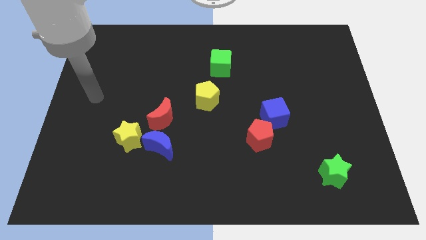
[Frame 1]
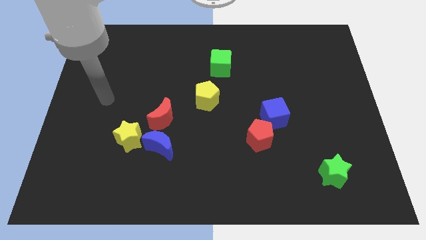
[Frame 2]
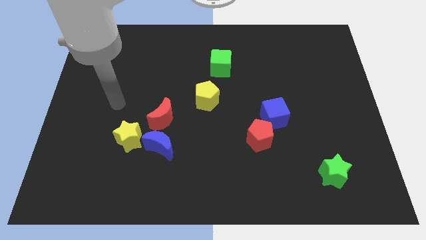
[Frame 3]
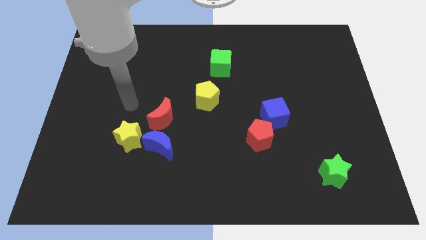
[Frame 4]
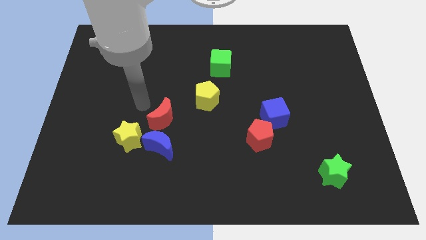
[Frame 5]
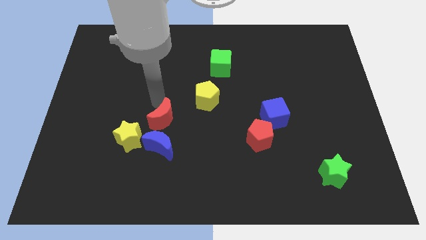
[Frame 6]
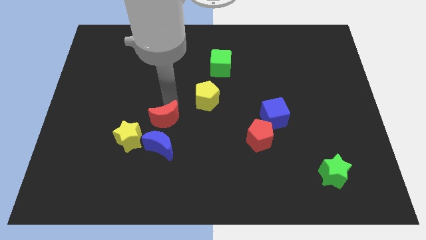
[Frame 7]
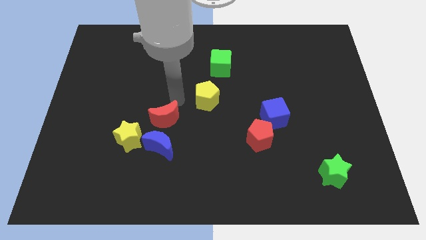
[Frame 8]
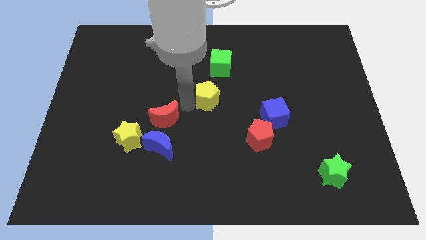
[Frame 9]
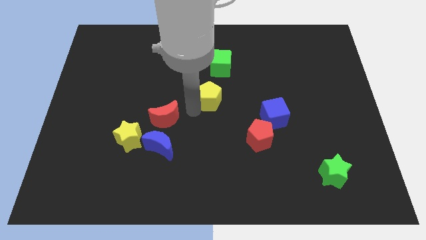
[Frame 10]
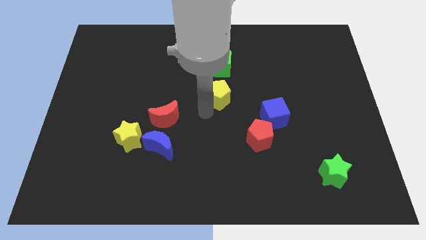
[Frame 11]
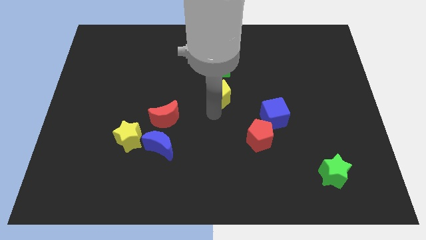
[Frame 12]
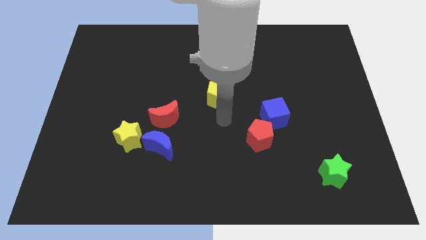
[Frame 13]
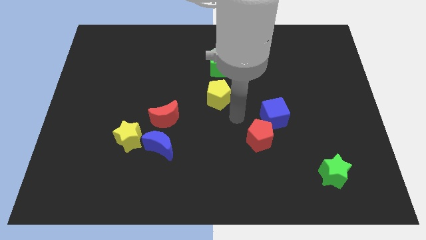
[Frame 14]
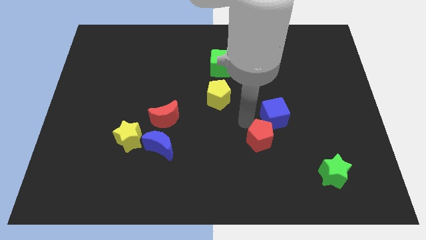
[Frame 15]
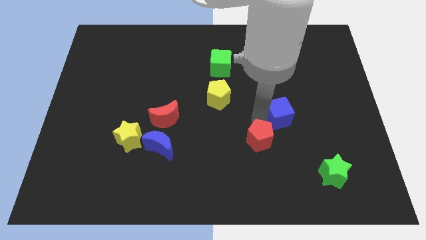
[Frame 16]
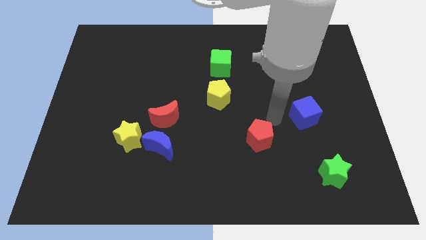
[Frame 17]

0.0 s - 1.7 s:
separate the red pentagon from the blue cube

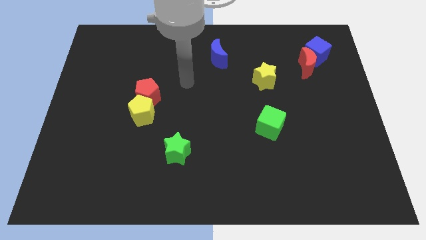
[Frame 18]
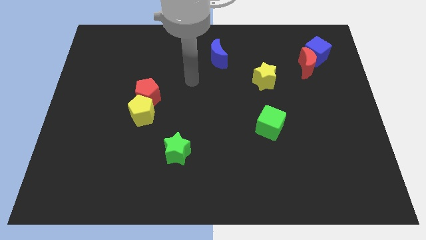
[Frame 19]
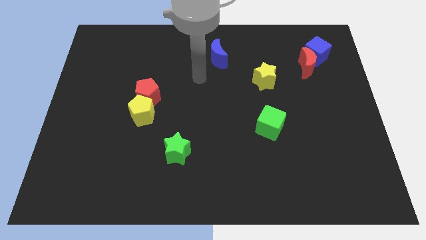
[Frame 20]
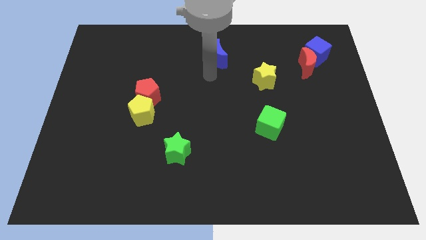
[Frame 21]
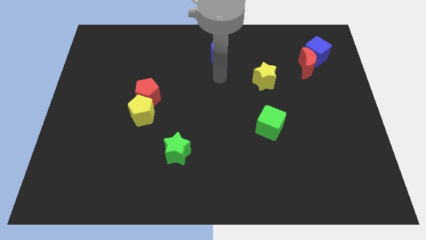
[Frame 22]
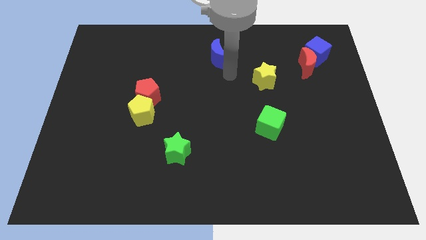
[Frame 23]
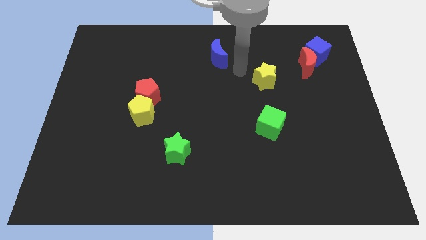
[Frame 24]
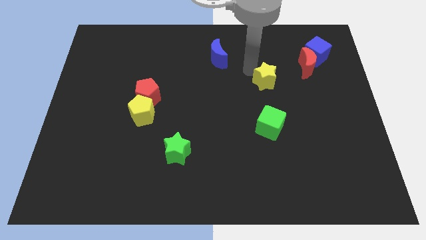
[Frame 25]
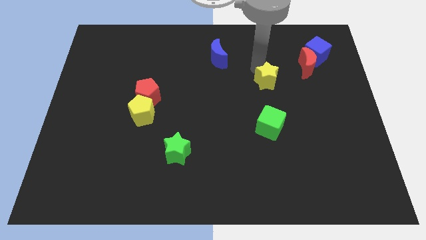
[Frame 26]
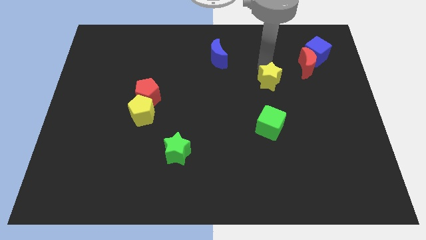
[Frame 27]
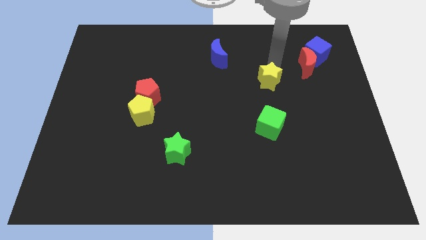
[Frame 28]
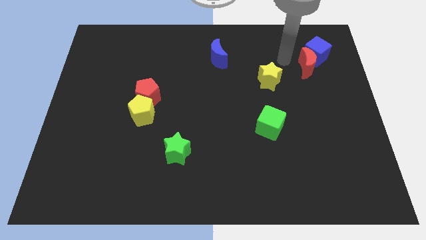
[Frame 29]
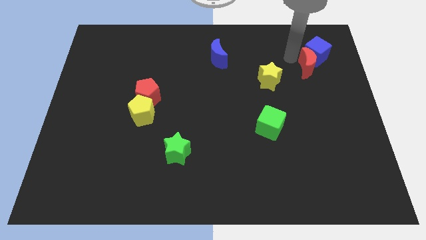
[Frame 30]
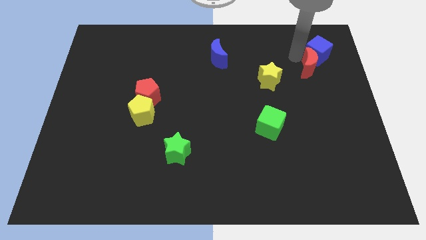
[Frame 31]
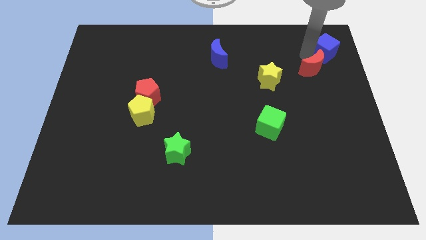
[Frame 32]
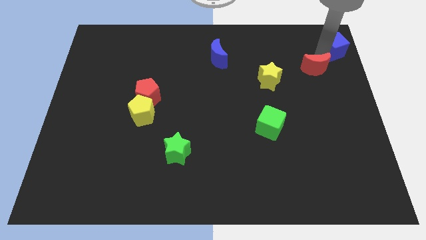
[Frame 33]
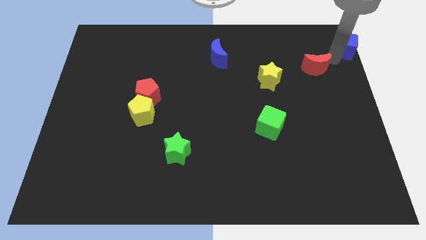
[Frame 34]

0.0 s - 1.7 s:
separate the red moon from the blue cube

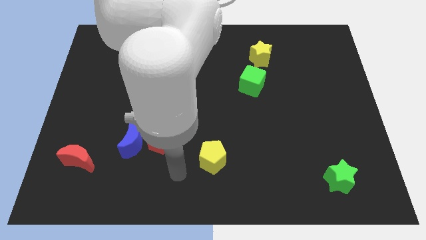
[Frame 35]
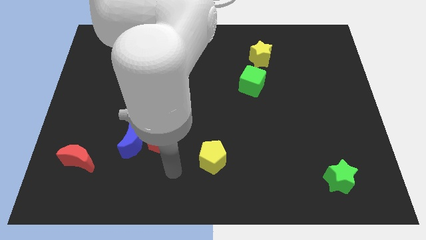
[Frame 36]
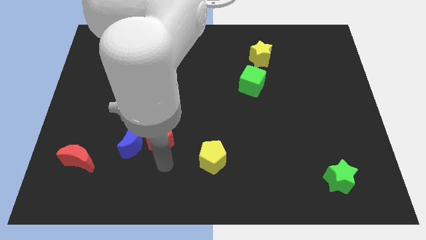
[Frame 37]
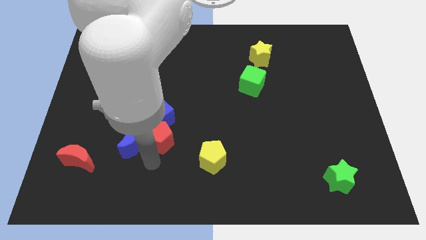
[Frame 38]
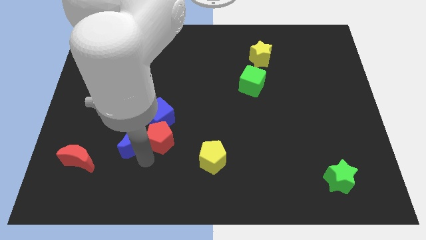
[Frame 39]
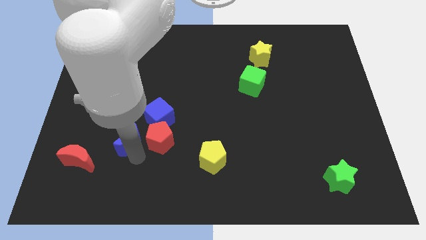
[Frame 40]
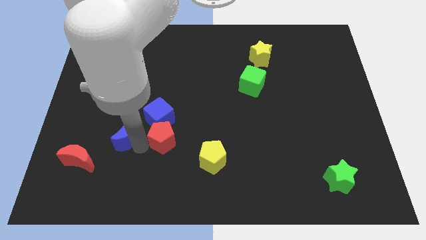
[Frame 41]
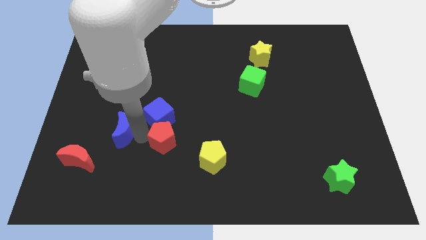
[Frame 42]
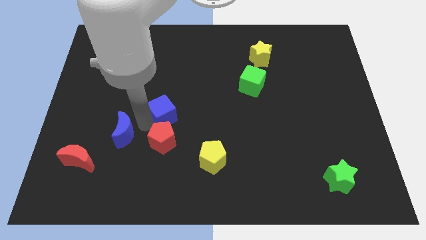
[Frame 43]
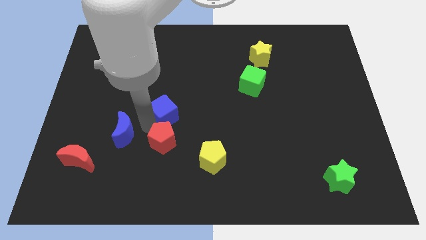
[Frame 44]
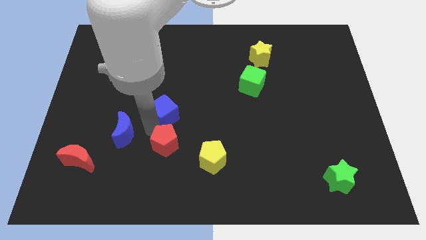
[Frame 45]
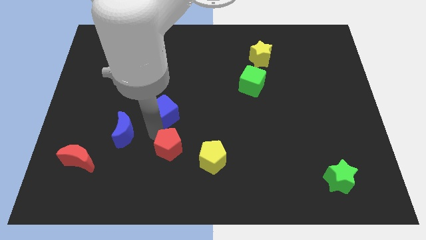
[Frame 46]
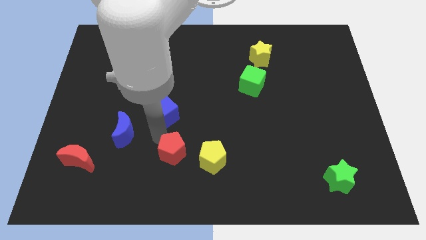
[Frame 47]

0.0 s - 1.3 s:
separate the red pentagon from the blue moon and blue cube

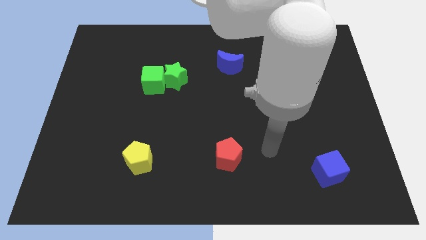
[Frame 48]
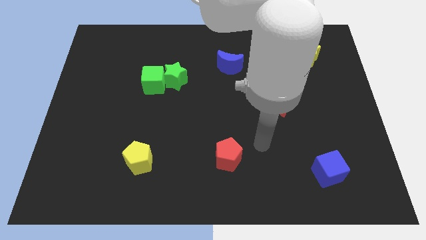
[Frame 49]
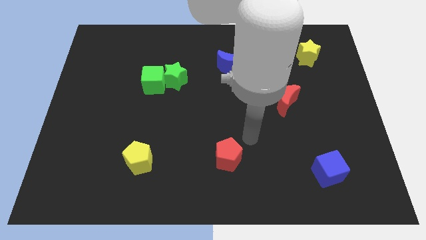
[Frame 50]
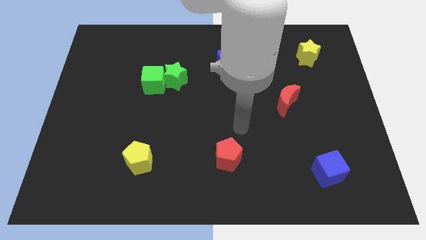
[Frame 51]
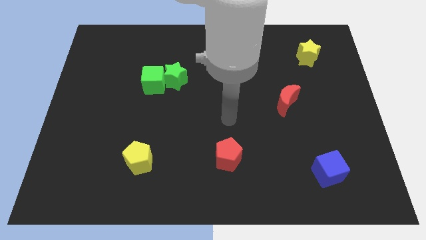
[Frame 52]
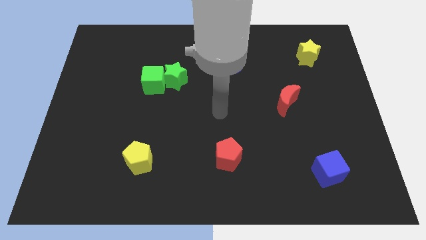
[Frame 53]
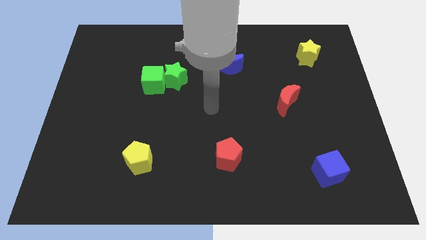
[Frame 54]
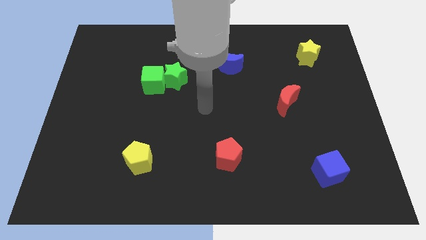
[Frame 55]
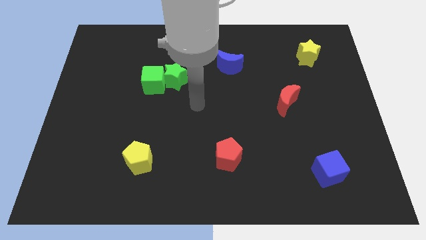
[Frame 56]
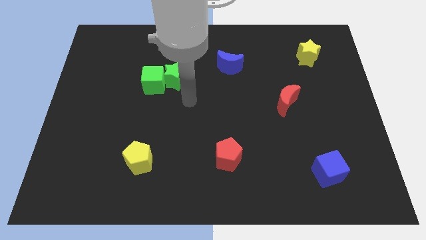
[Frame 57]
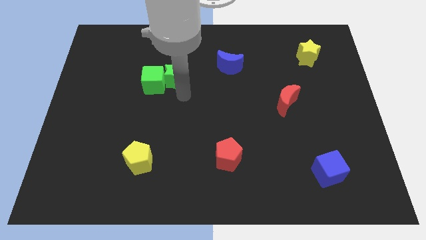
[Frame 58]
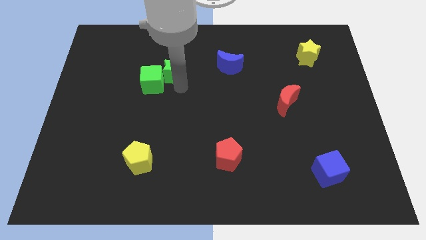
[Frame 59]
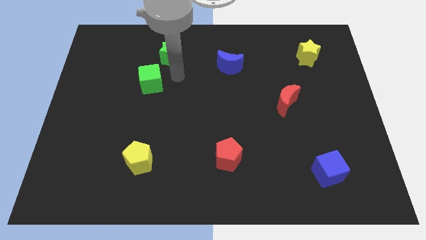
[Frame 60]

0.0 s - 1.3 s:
pull the green cube apart from the green star

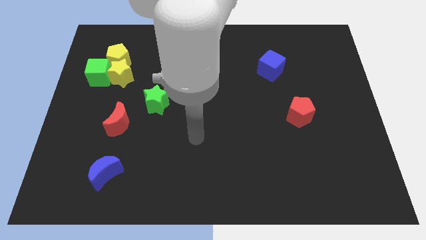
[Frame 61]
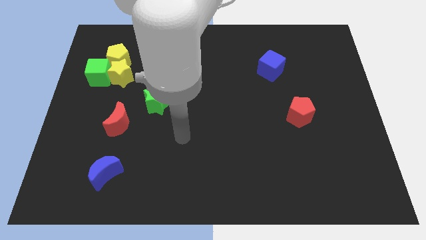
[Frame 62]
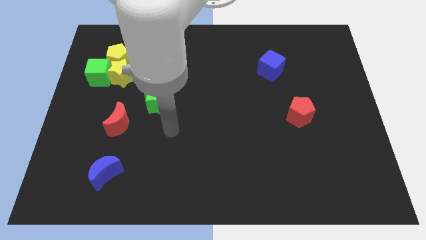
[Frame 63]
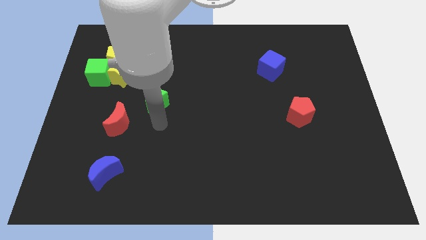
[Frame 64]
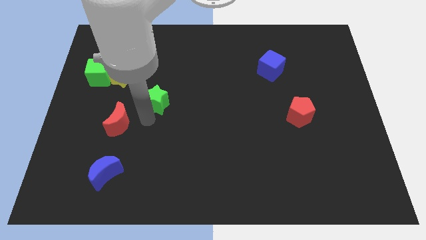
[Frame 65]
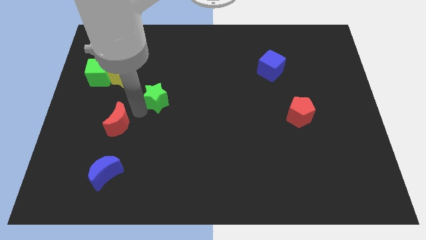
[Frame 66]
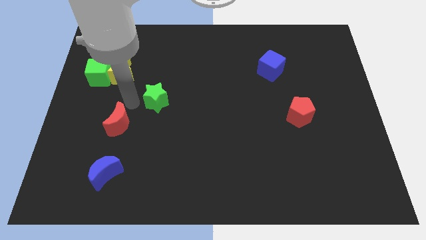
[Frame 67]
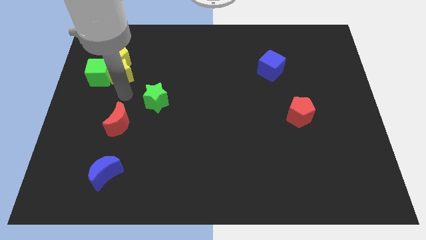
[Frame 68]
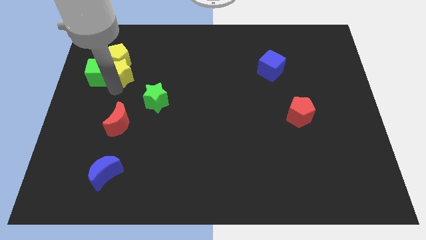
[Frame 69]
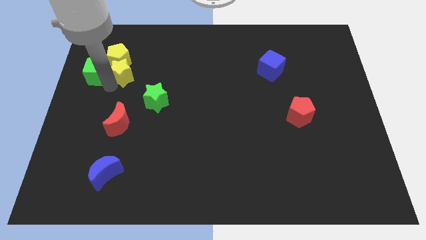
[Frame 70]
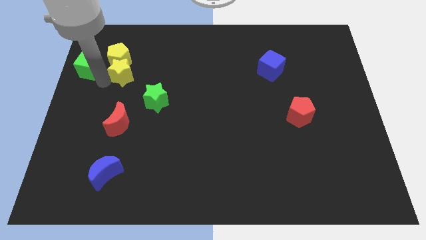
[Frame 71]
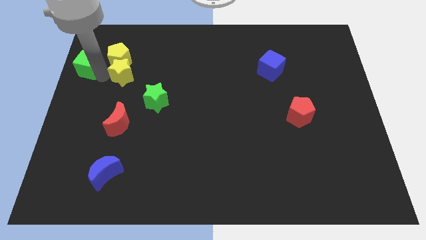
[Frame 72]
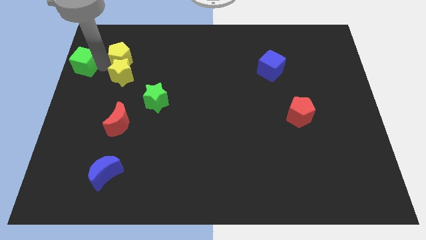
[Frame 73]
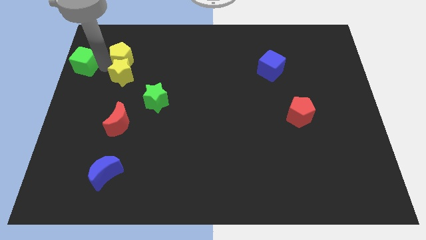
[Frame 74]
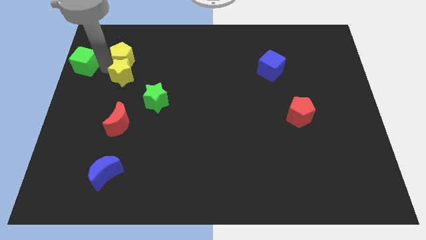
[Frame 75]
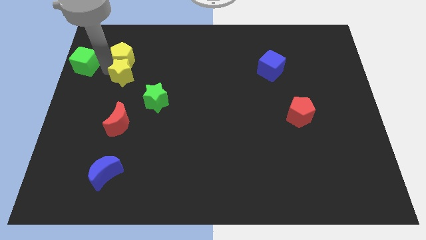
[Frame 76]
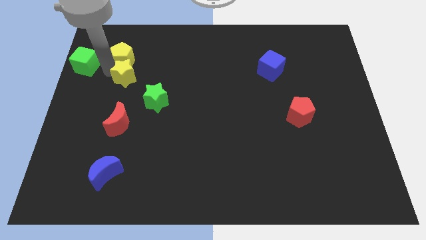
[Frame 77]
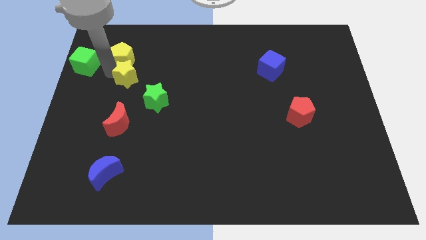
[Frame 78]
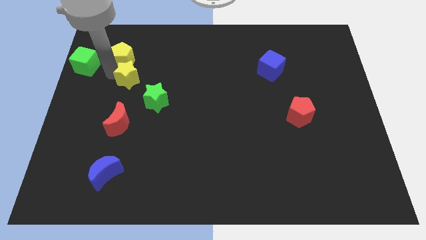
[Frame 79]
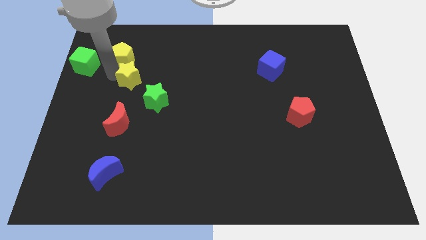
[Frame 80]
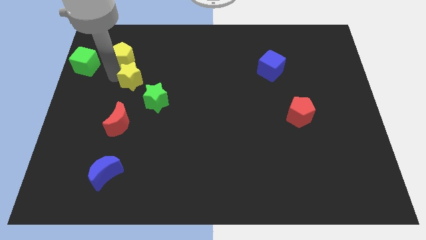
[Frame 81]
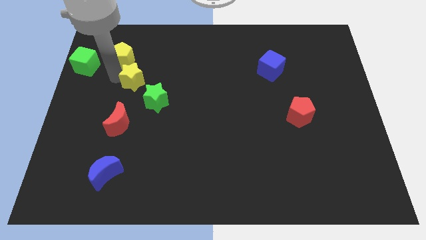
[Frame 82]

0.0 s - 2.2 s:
separate the yellow star from the green cube and yellow pentagon

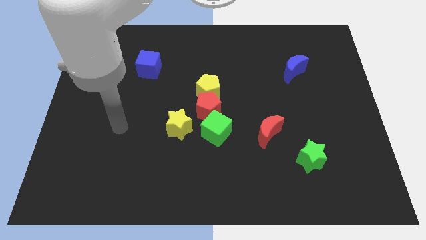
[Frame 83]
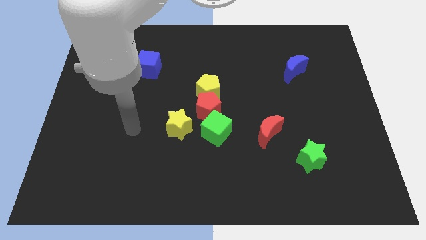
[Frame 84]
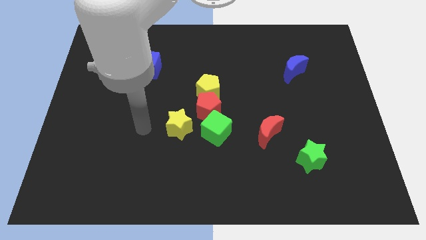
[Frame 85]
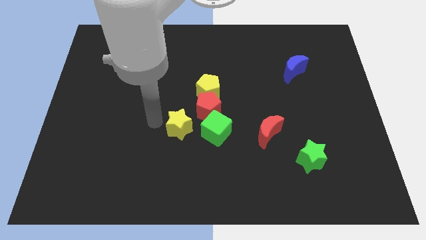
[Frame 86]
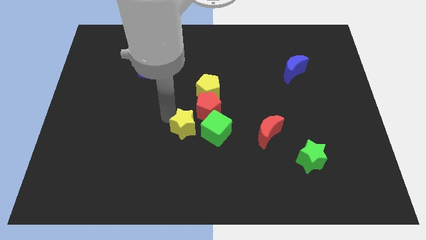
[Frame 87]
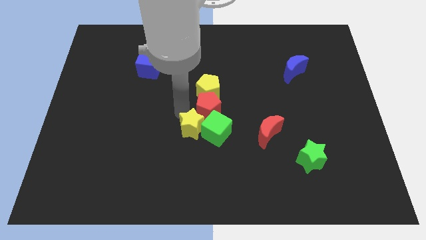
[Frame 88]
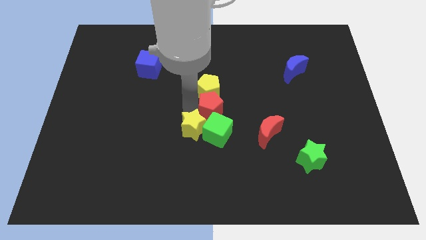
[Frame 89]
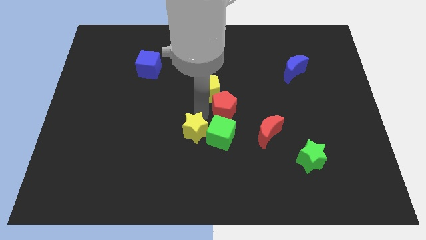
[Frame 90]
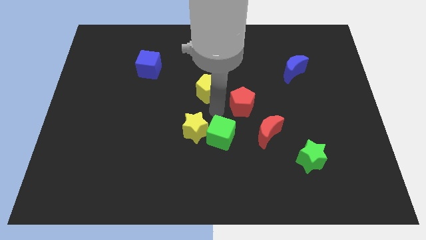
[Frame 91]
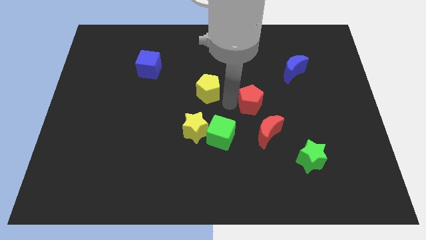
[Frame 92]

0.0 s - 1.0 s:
separate the yellow pentagon from the red pentagon
